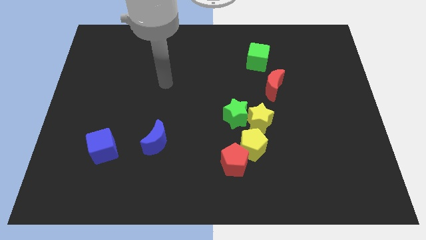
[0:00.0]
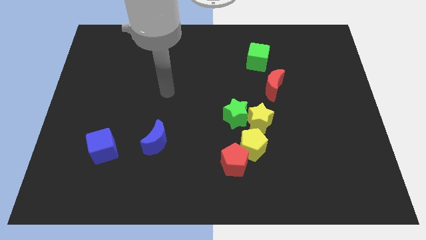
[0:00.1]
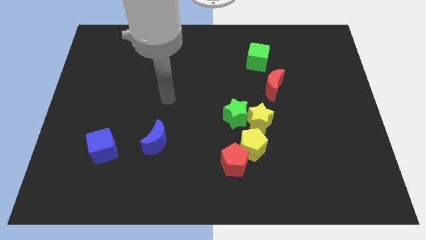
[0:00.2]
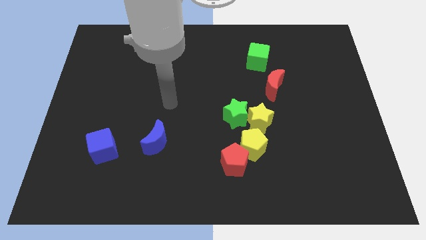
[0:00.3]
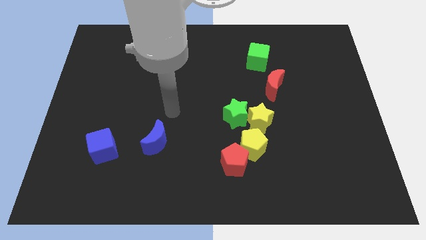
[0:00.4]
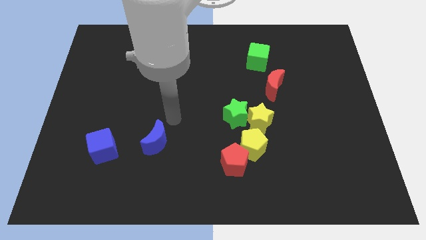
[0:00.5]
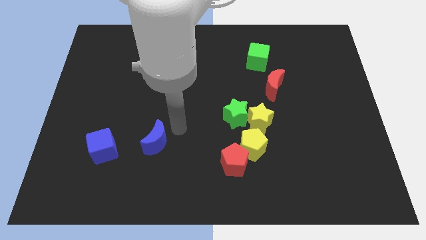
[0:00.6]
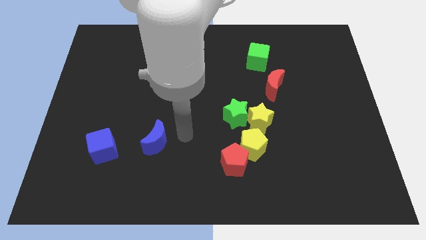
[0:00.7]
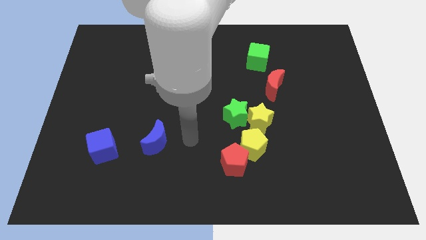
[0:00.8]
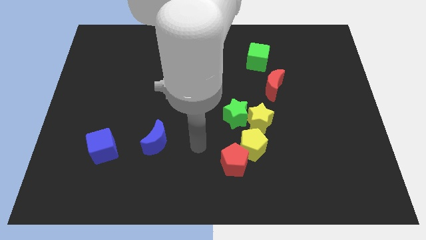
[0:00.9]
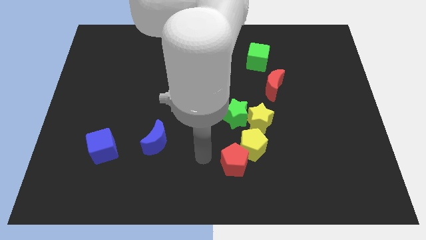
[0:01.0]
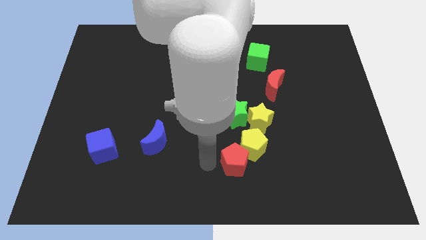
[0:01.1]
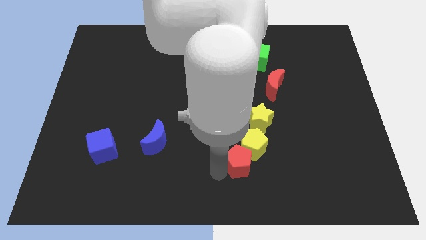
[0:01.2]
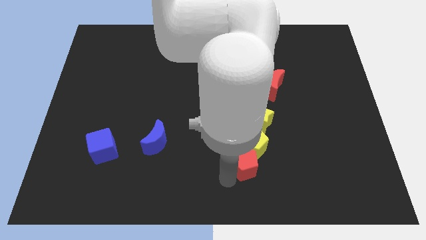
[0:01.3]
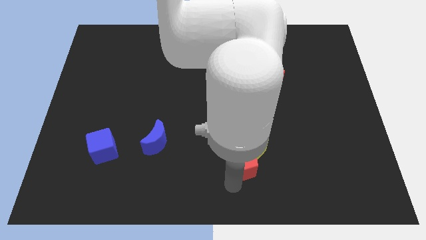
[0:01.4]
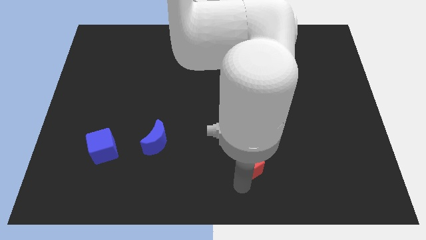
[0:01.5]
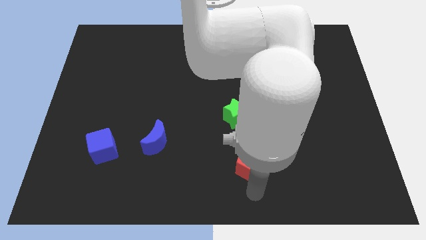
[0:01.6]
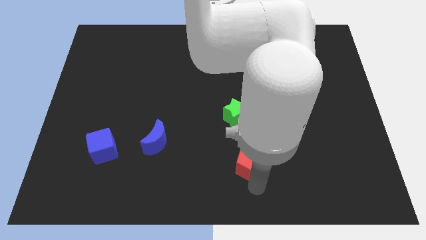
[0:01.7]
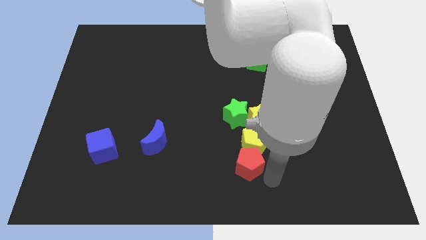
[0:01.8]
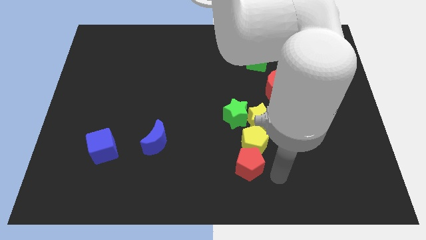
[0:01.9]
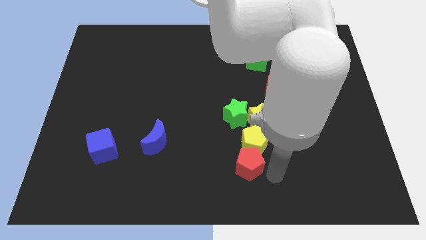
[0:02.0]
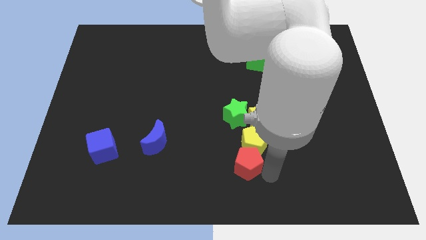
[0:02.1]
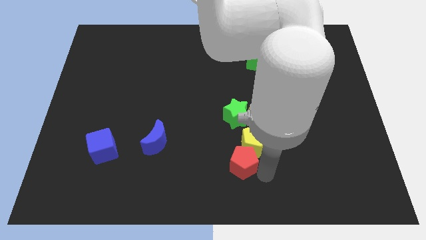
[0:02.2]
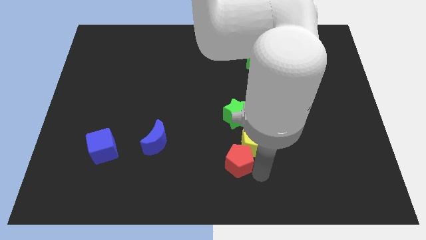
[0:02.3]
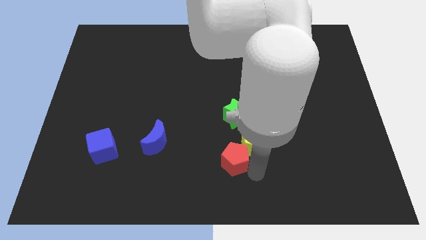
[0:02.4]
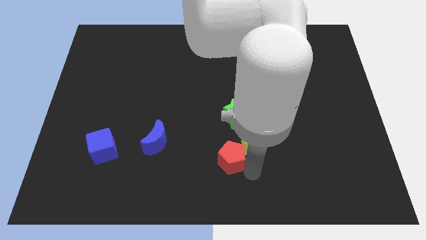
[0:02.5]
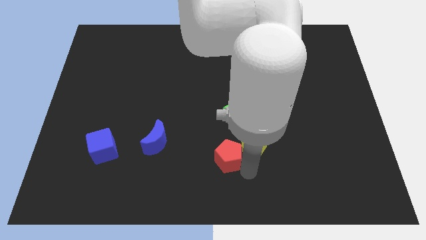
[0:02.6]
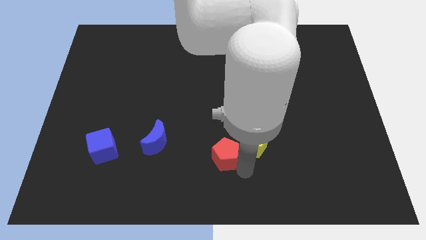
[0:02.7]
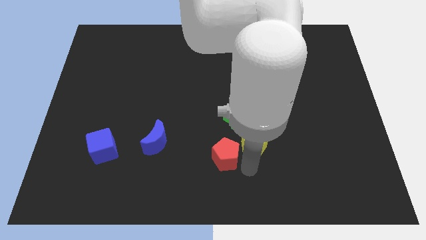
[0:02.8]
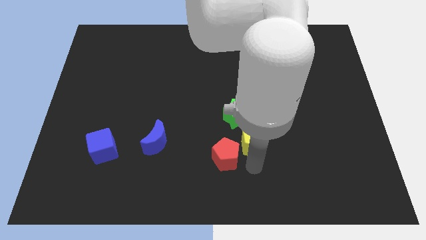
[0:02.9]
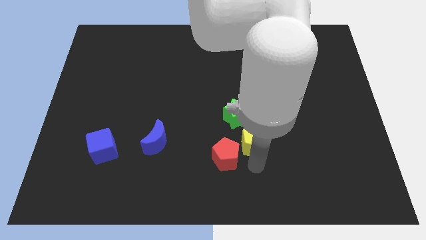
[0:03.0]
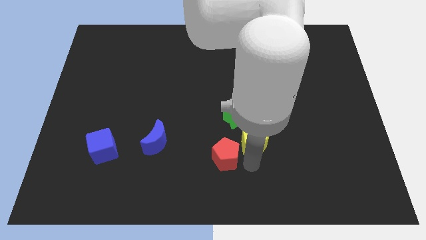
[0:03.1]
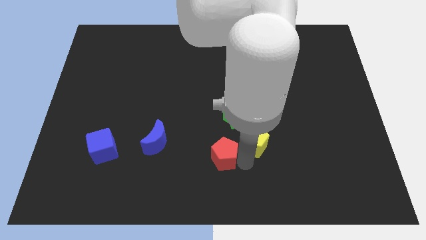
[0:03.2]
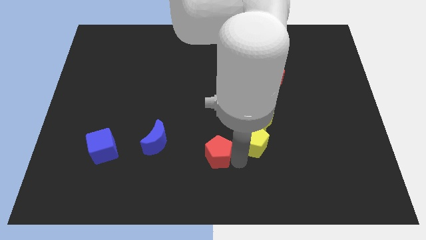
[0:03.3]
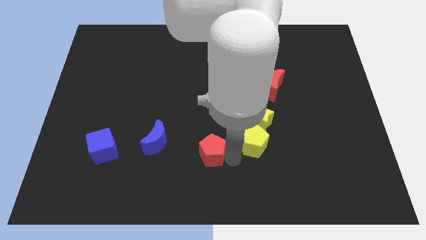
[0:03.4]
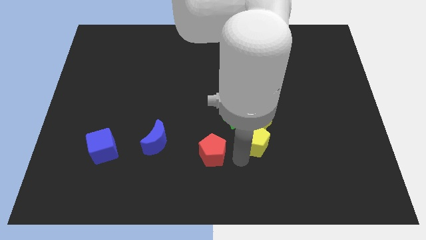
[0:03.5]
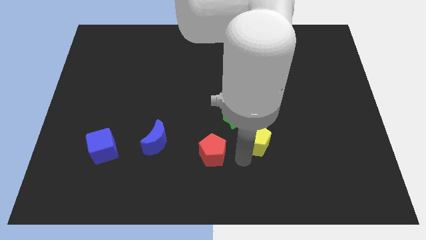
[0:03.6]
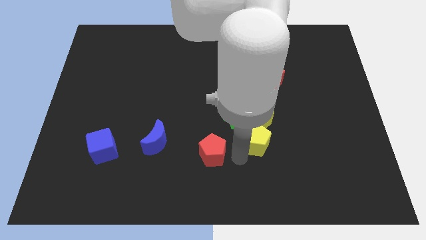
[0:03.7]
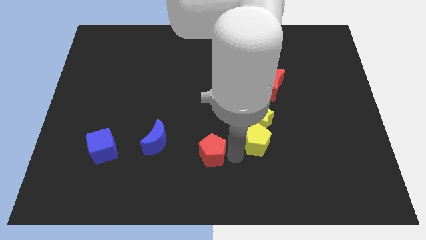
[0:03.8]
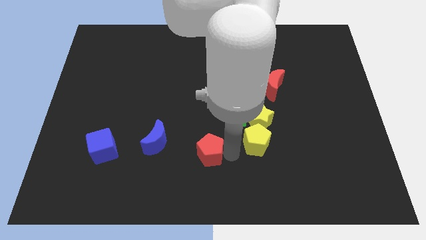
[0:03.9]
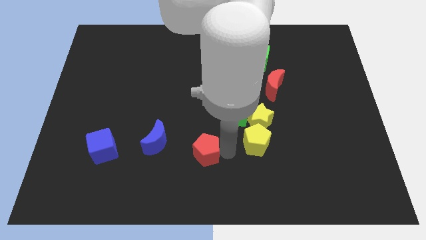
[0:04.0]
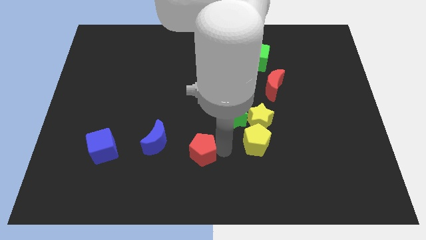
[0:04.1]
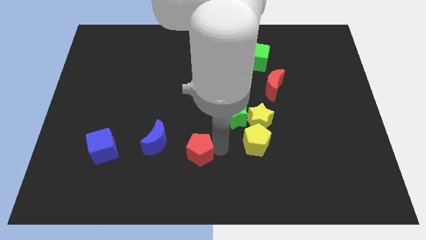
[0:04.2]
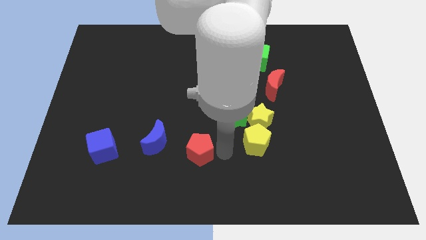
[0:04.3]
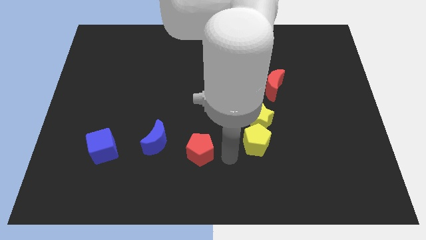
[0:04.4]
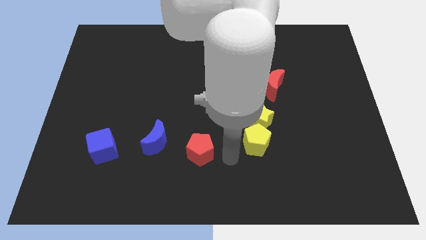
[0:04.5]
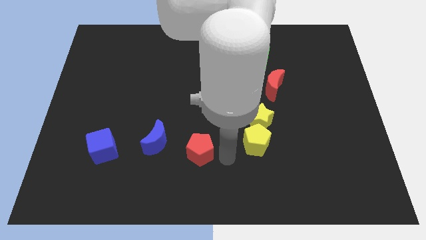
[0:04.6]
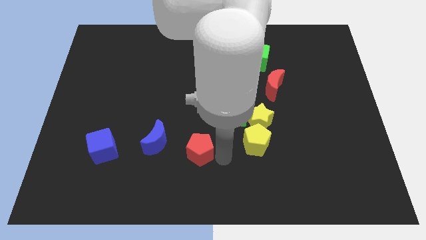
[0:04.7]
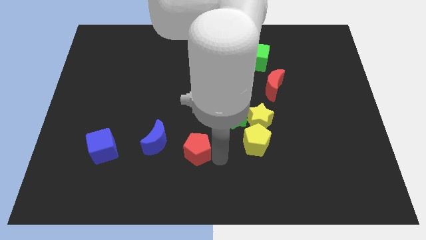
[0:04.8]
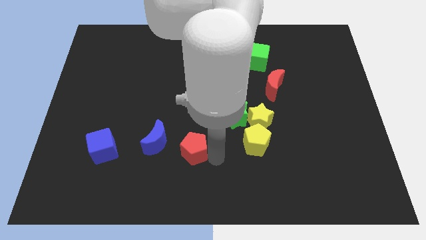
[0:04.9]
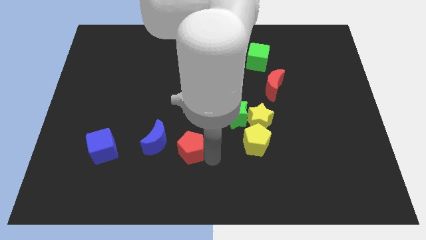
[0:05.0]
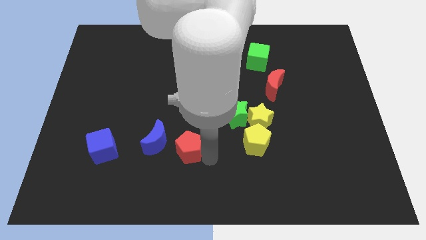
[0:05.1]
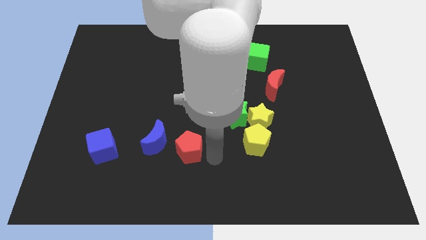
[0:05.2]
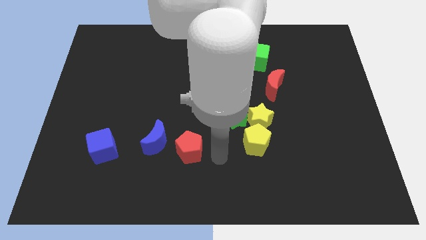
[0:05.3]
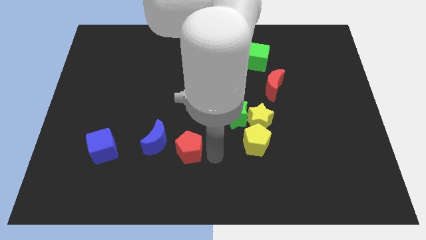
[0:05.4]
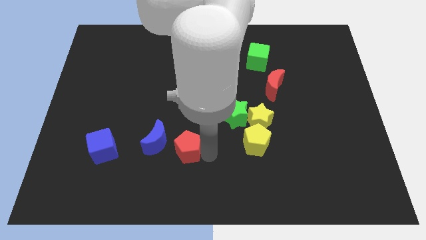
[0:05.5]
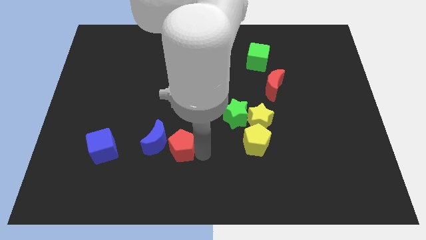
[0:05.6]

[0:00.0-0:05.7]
move the red pentagon towards the blue moon

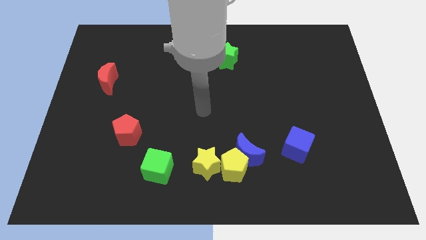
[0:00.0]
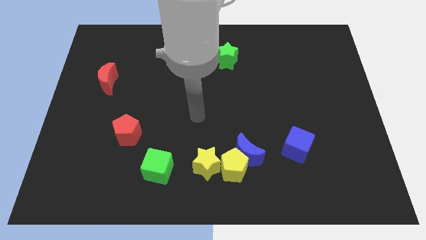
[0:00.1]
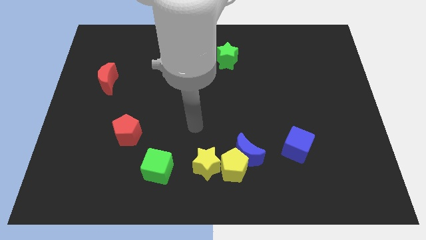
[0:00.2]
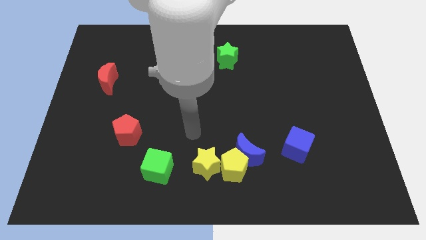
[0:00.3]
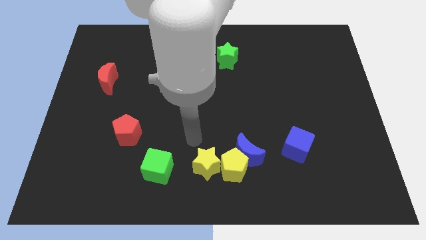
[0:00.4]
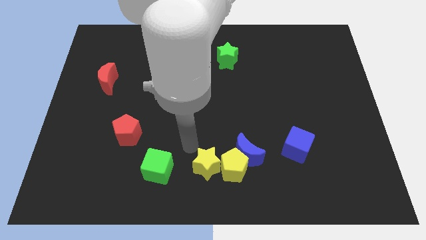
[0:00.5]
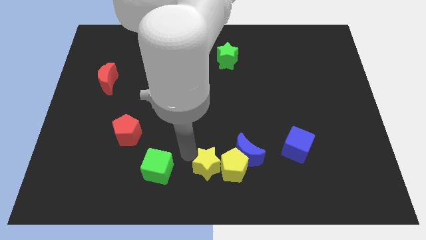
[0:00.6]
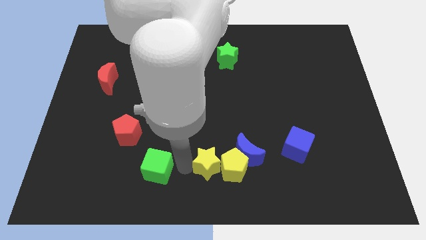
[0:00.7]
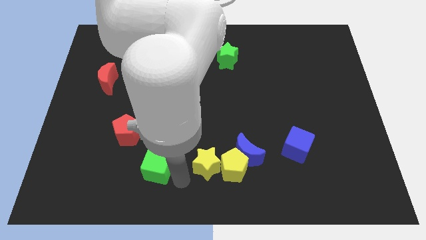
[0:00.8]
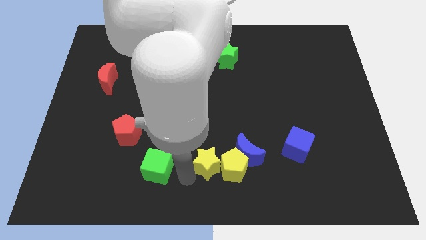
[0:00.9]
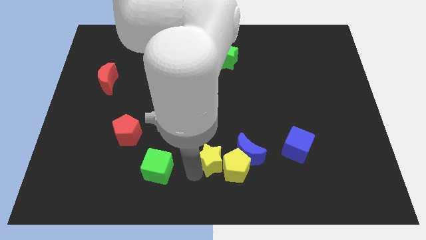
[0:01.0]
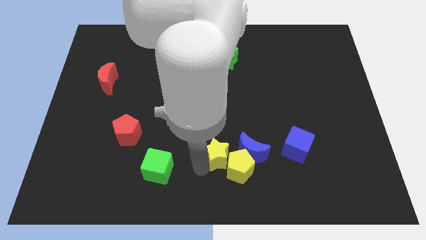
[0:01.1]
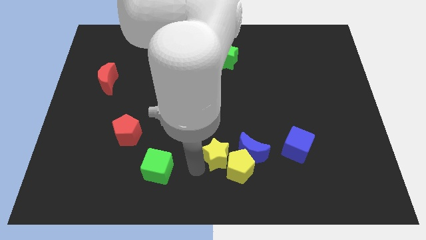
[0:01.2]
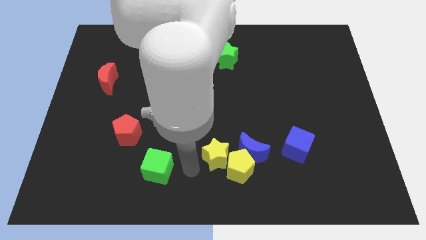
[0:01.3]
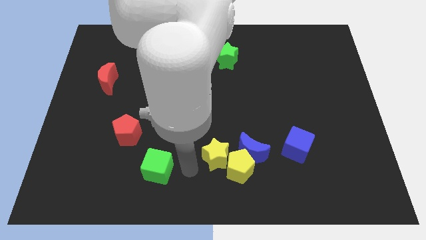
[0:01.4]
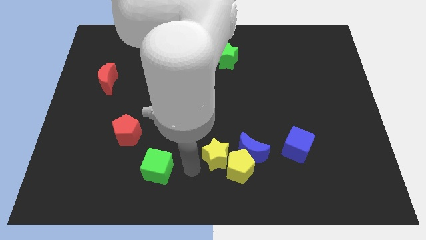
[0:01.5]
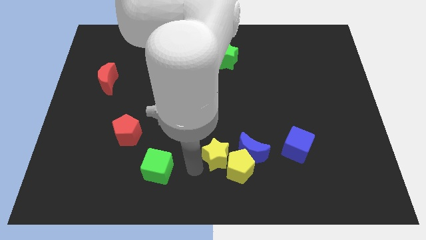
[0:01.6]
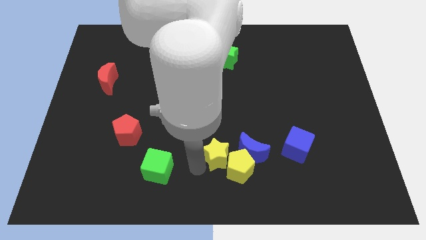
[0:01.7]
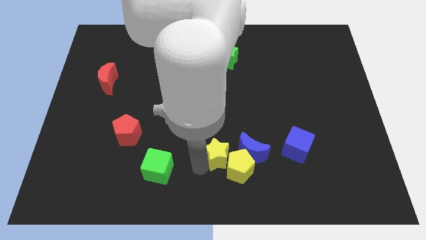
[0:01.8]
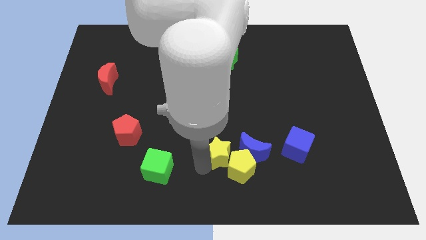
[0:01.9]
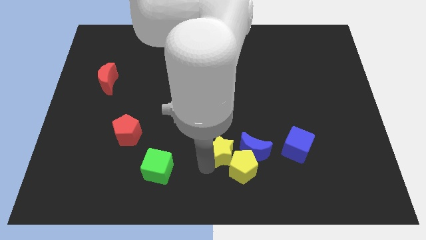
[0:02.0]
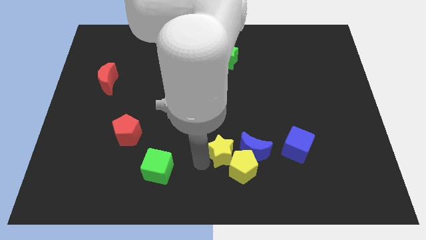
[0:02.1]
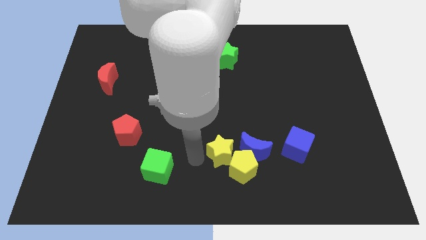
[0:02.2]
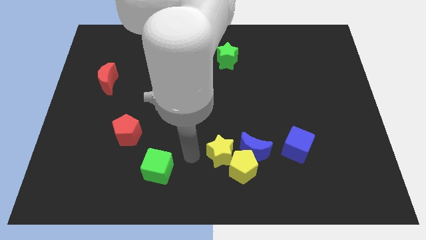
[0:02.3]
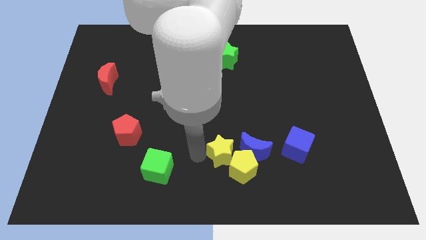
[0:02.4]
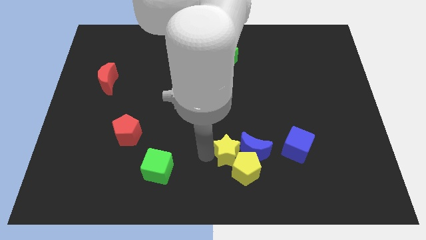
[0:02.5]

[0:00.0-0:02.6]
put the yellow star to the blue moon
